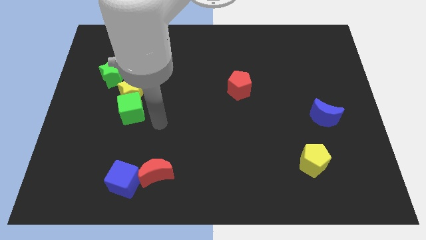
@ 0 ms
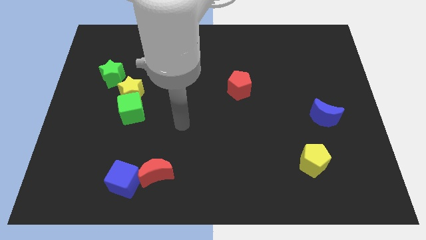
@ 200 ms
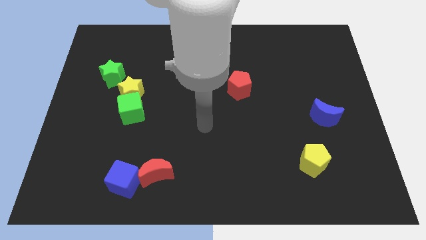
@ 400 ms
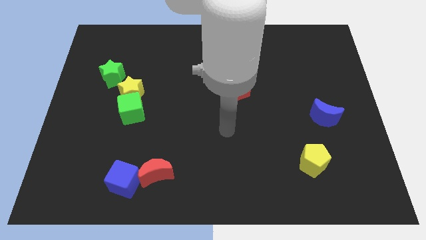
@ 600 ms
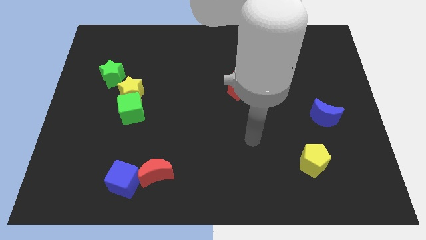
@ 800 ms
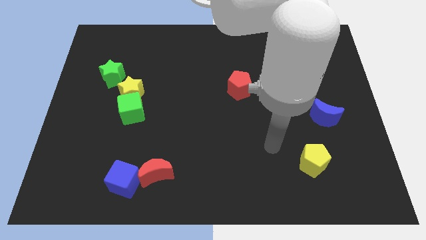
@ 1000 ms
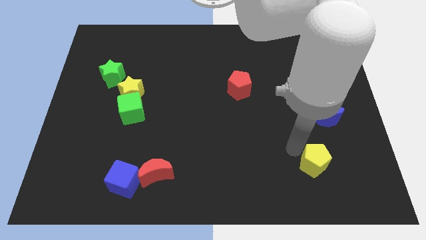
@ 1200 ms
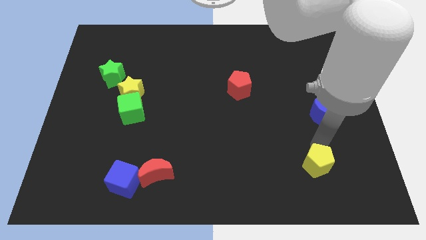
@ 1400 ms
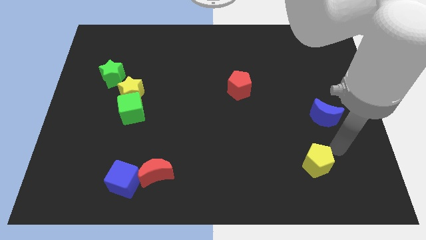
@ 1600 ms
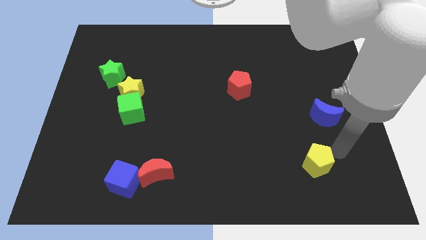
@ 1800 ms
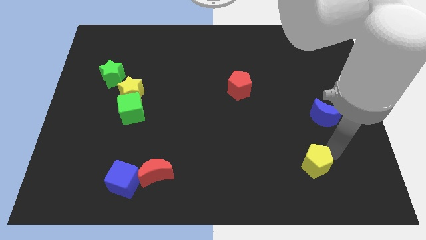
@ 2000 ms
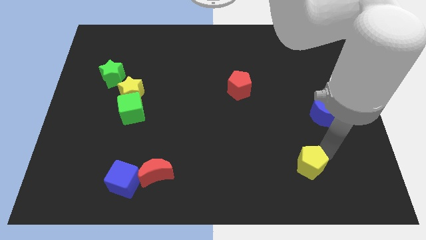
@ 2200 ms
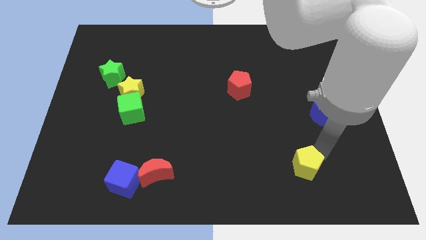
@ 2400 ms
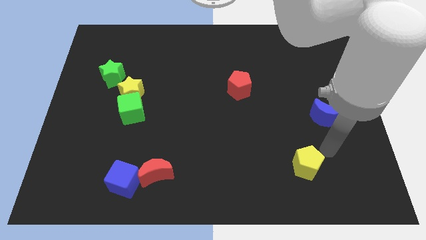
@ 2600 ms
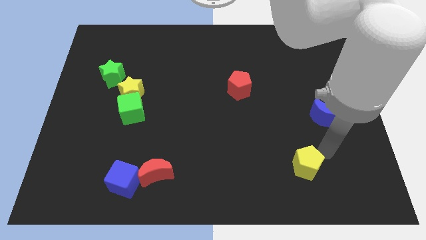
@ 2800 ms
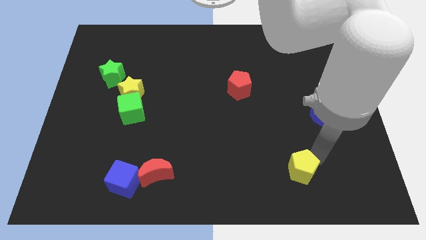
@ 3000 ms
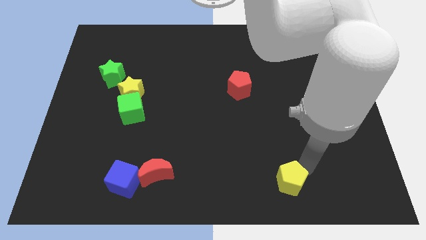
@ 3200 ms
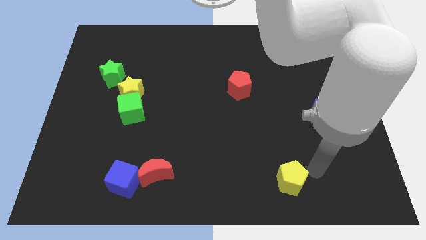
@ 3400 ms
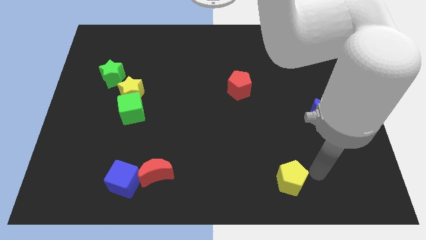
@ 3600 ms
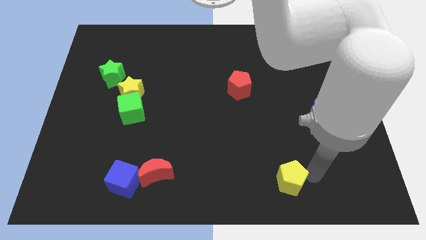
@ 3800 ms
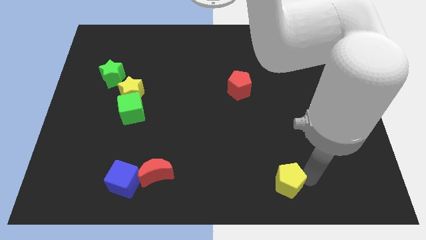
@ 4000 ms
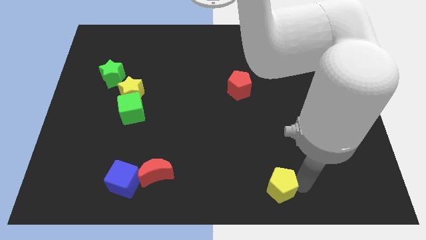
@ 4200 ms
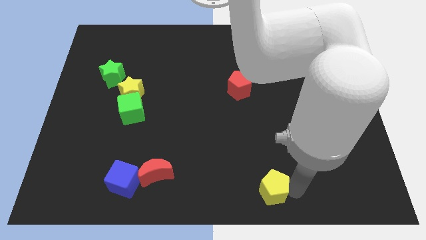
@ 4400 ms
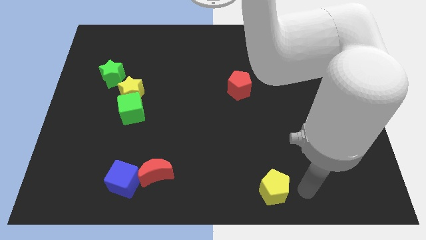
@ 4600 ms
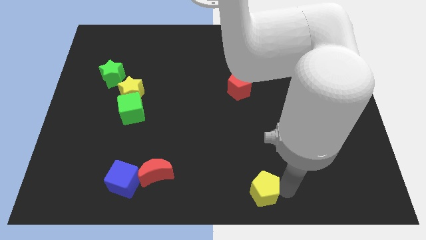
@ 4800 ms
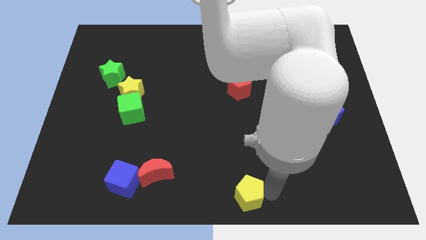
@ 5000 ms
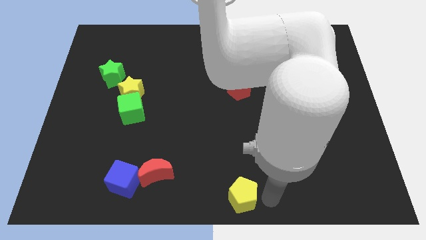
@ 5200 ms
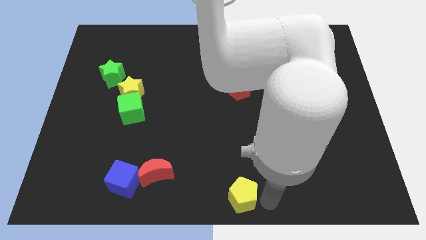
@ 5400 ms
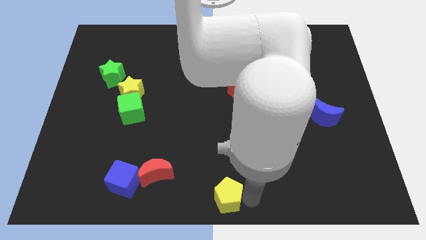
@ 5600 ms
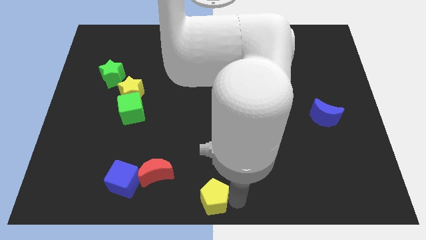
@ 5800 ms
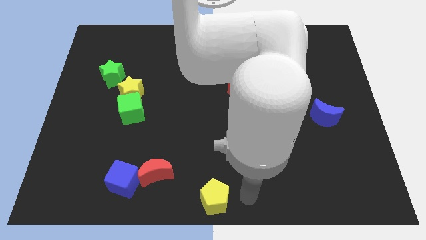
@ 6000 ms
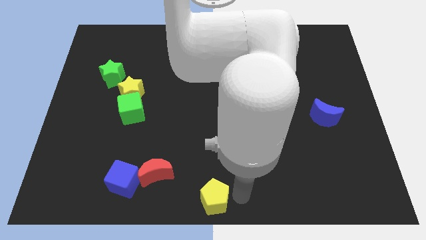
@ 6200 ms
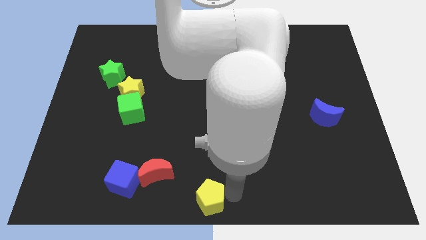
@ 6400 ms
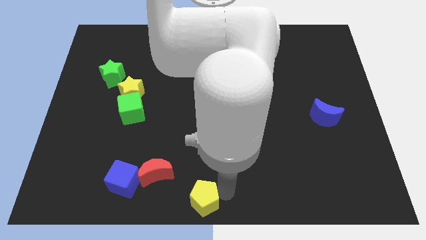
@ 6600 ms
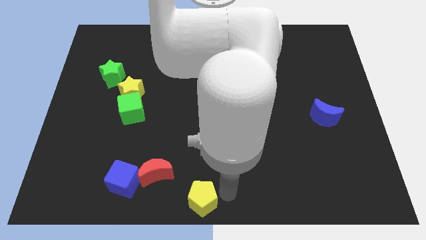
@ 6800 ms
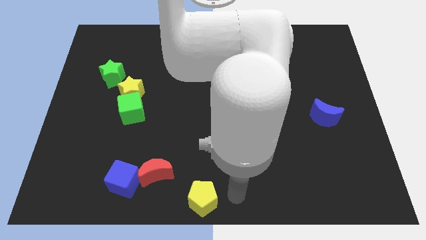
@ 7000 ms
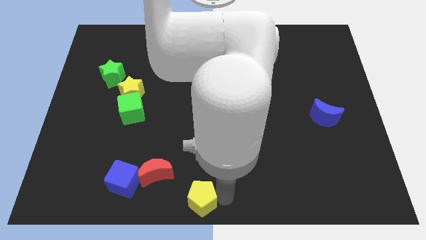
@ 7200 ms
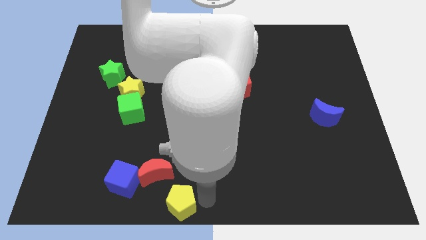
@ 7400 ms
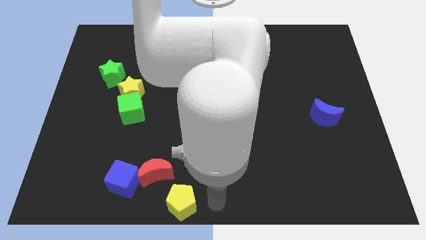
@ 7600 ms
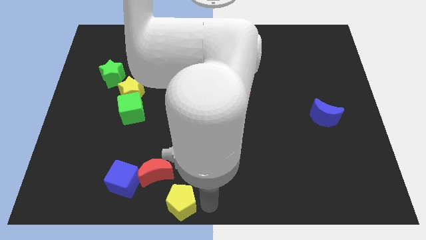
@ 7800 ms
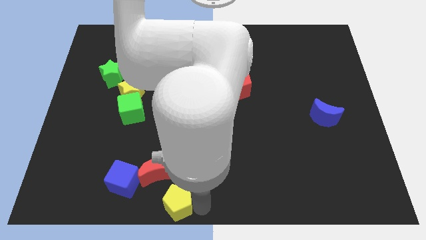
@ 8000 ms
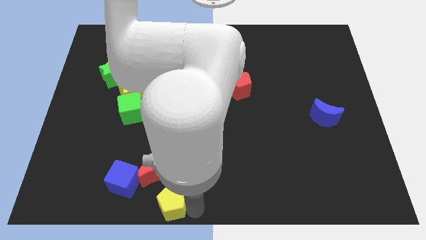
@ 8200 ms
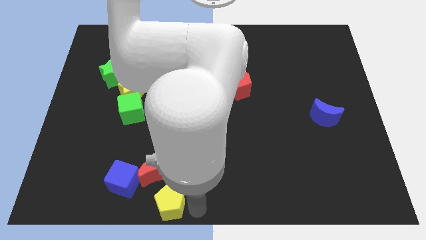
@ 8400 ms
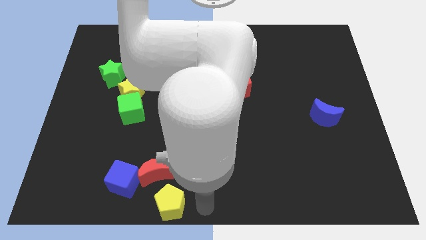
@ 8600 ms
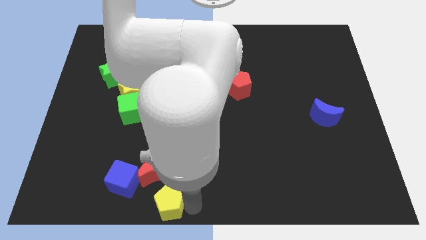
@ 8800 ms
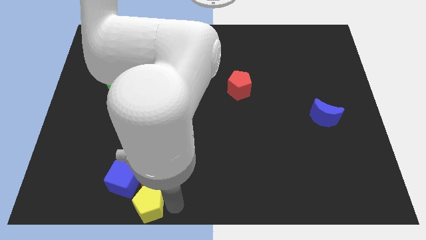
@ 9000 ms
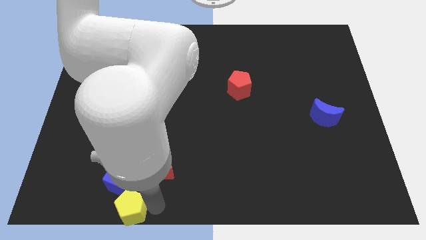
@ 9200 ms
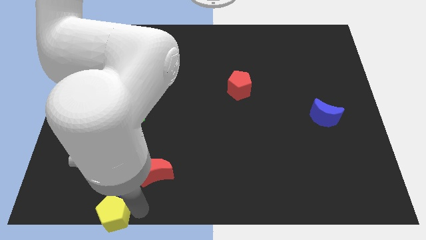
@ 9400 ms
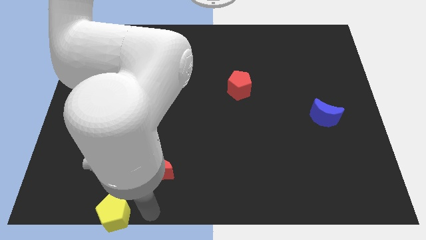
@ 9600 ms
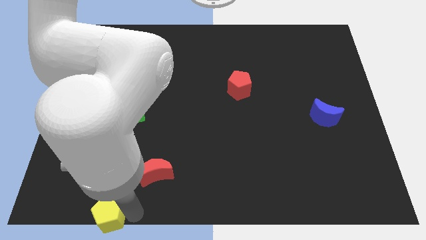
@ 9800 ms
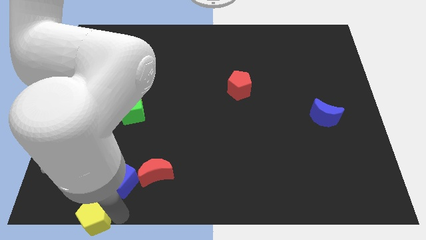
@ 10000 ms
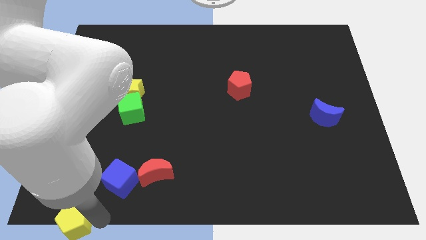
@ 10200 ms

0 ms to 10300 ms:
put the yellow pentagon to the lower left corner

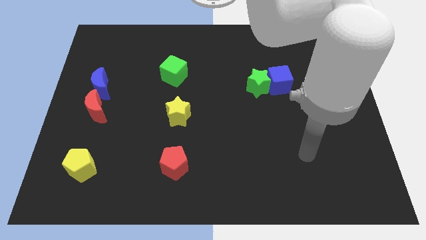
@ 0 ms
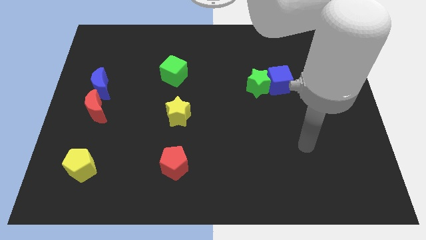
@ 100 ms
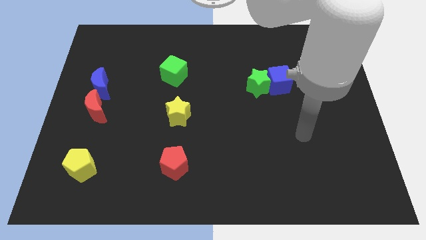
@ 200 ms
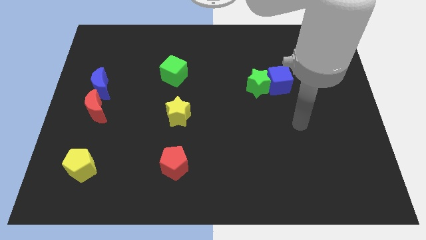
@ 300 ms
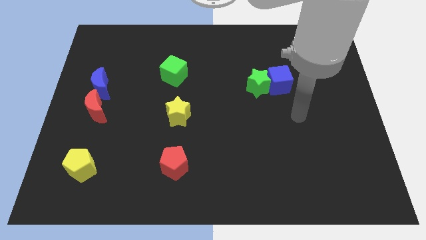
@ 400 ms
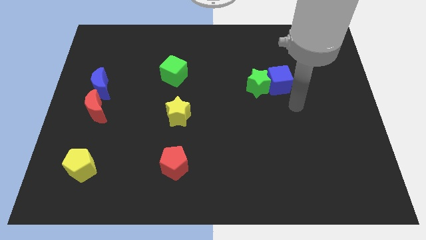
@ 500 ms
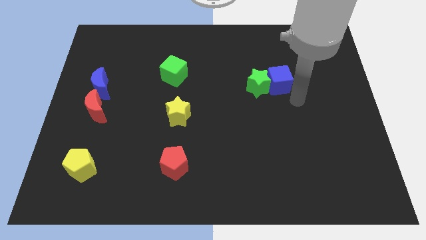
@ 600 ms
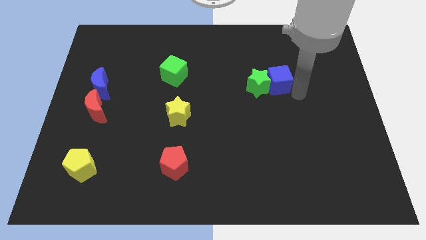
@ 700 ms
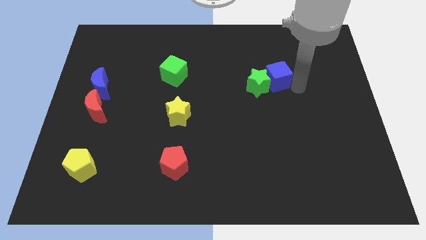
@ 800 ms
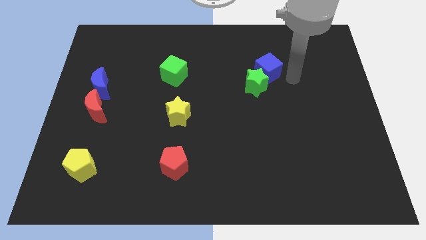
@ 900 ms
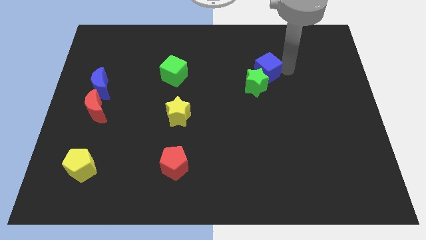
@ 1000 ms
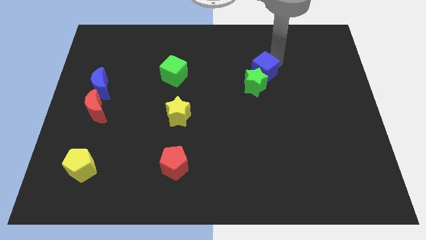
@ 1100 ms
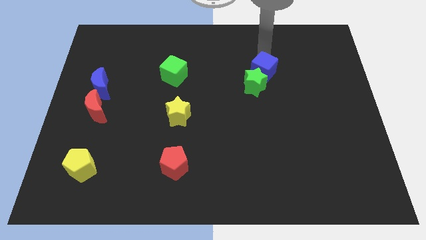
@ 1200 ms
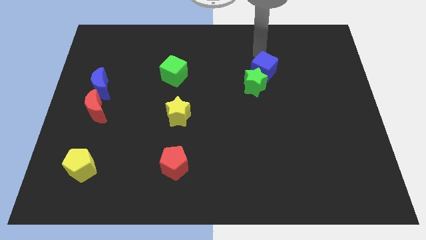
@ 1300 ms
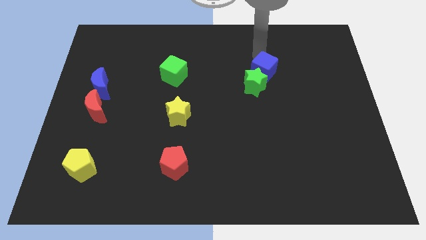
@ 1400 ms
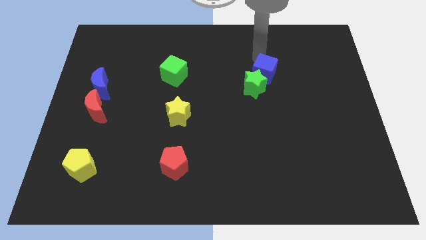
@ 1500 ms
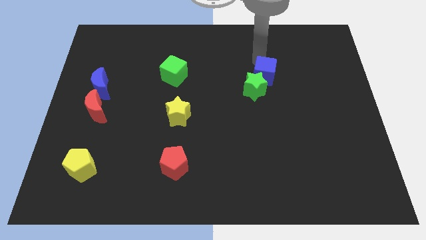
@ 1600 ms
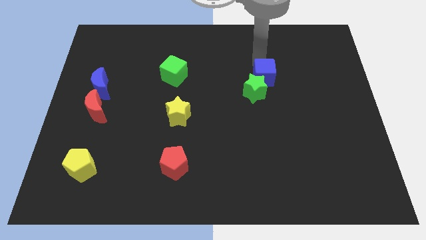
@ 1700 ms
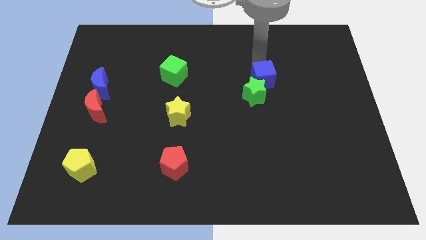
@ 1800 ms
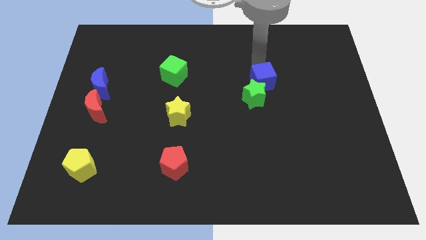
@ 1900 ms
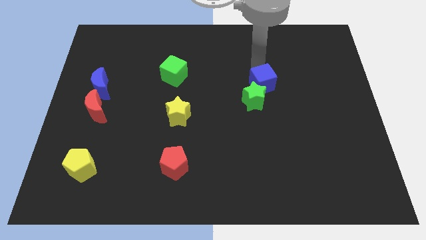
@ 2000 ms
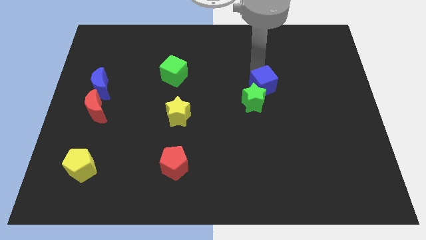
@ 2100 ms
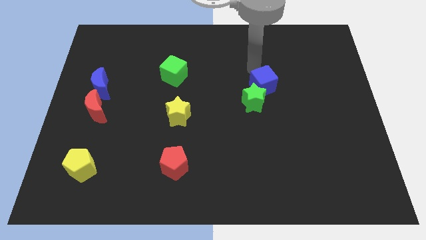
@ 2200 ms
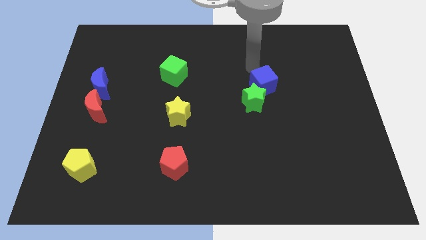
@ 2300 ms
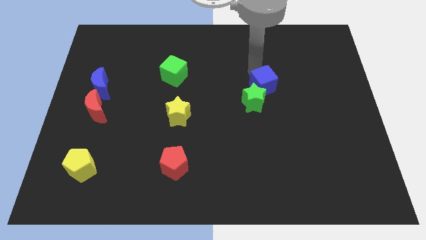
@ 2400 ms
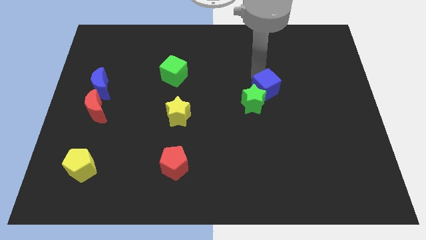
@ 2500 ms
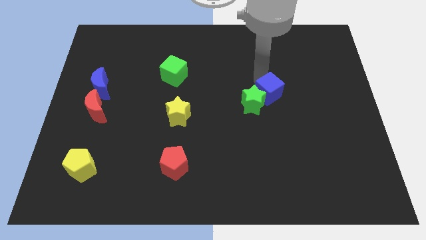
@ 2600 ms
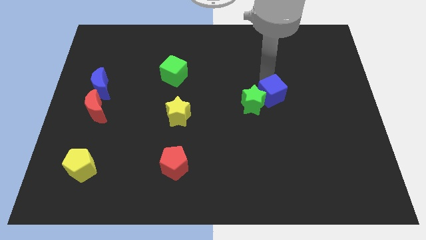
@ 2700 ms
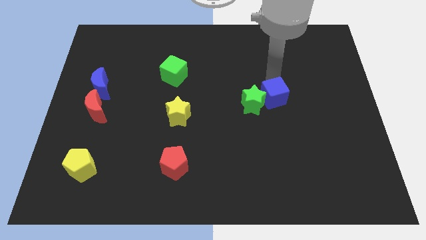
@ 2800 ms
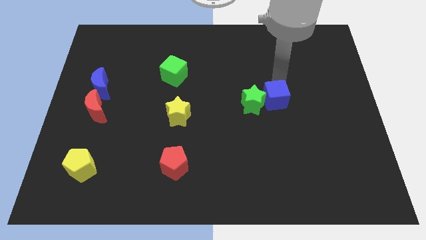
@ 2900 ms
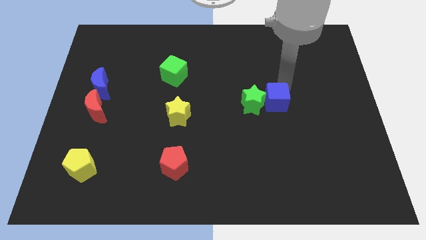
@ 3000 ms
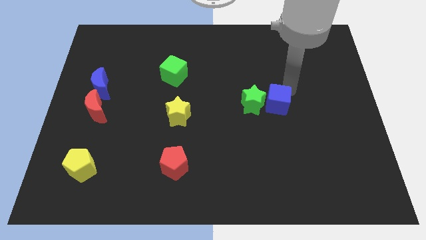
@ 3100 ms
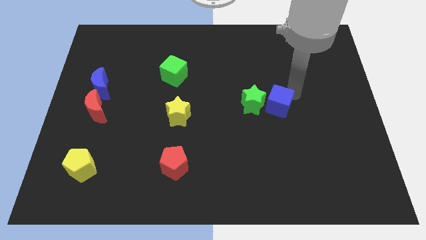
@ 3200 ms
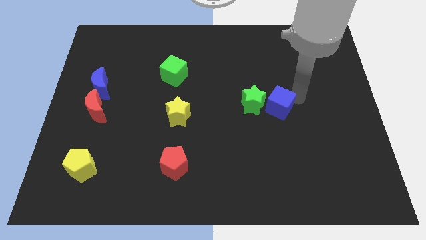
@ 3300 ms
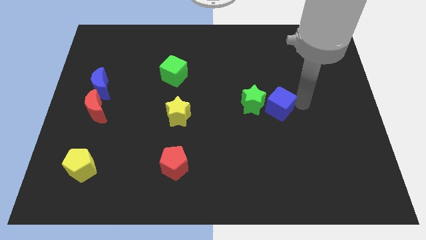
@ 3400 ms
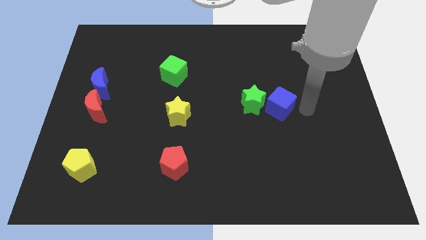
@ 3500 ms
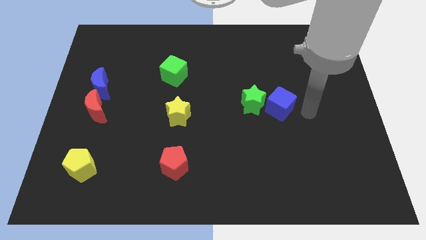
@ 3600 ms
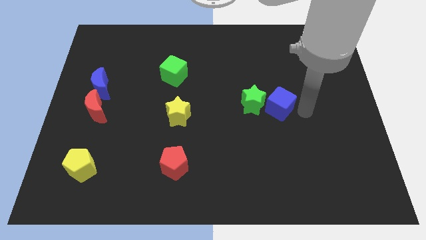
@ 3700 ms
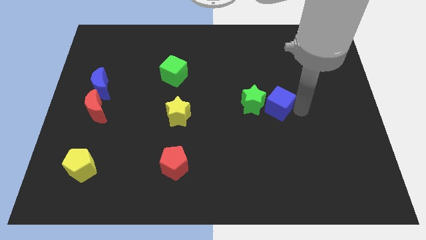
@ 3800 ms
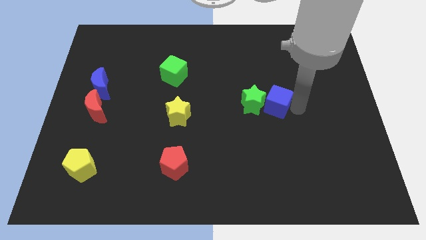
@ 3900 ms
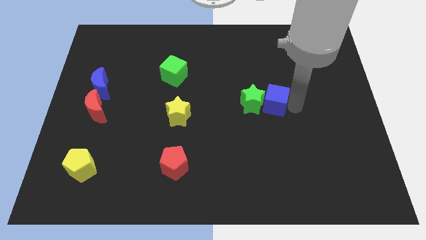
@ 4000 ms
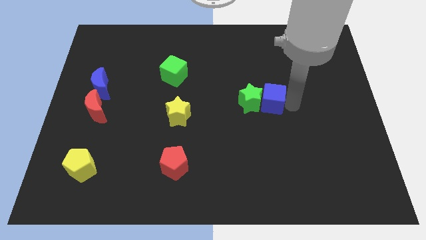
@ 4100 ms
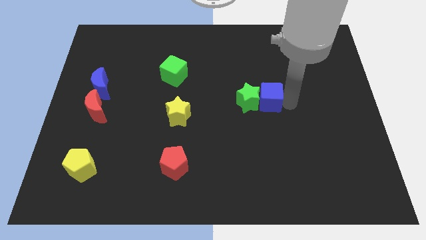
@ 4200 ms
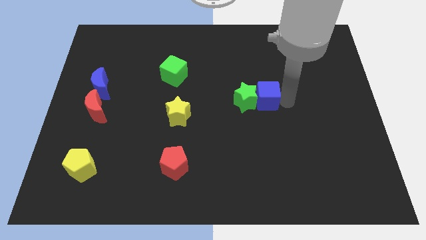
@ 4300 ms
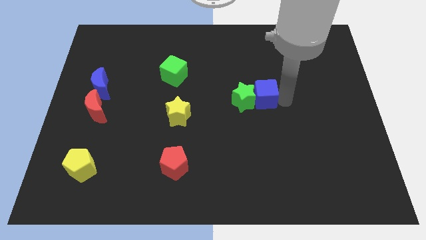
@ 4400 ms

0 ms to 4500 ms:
slide the blue cube to the center
